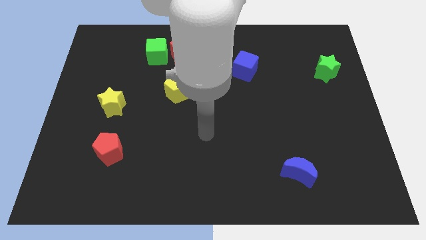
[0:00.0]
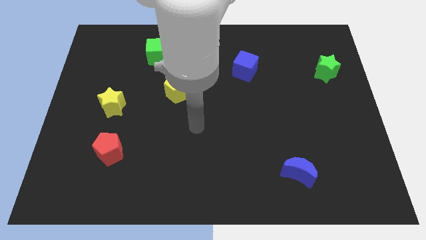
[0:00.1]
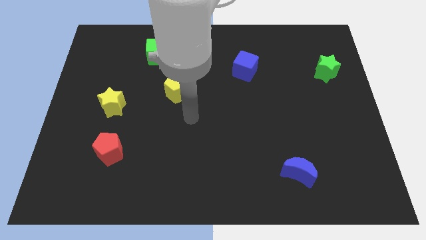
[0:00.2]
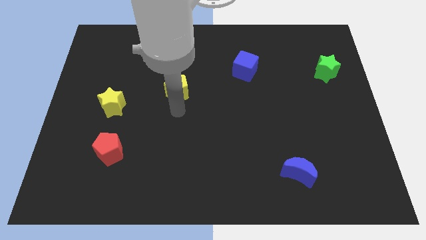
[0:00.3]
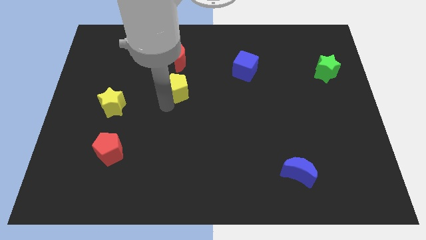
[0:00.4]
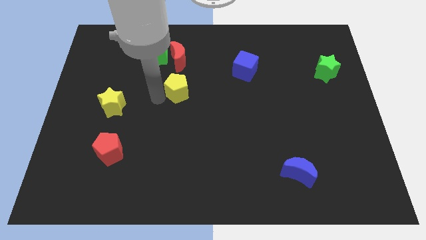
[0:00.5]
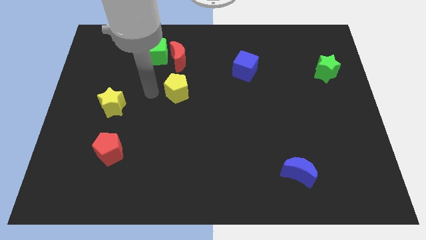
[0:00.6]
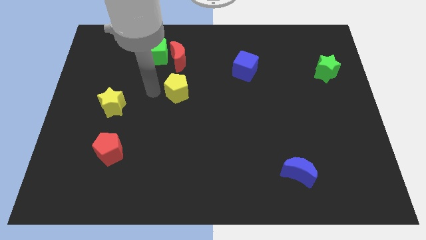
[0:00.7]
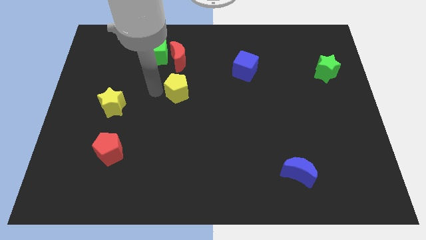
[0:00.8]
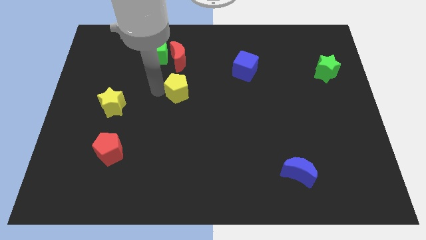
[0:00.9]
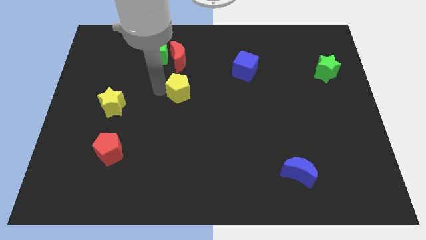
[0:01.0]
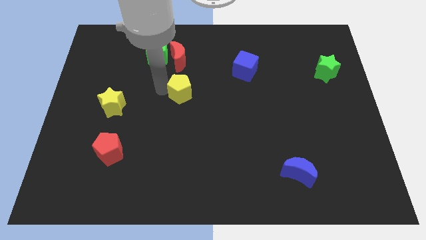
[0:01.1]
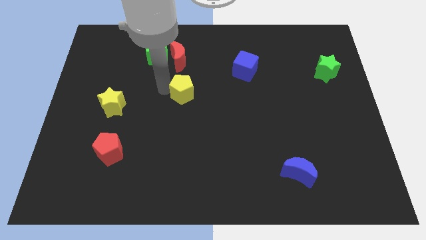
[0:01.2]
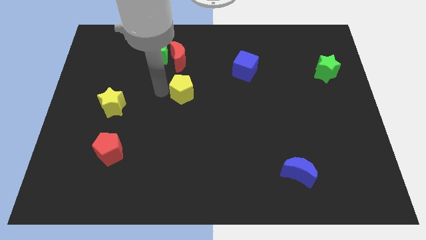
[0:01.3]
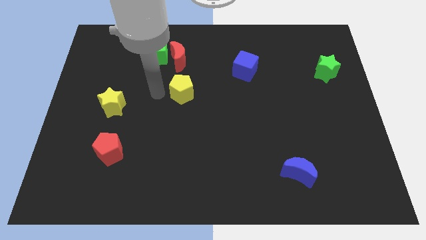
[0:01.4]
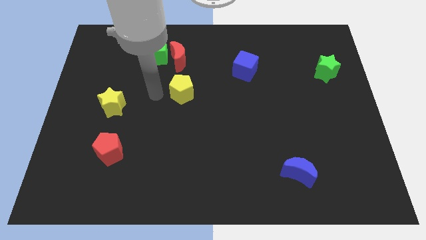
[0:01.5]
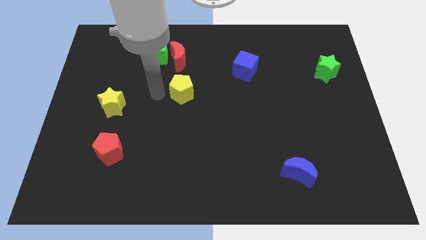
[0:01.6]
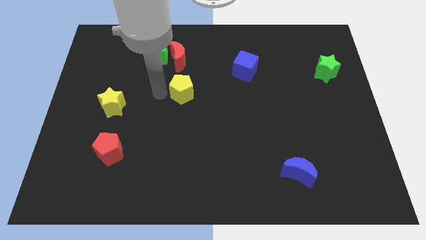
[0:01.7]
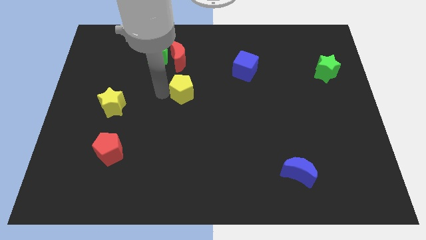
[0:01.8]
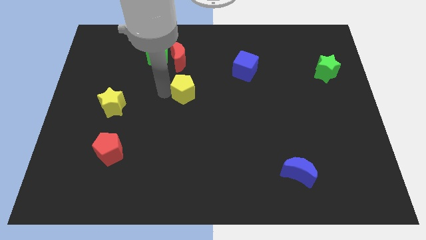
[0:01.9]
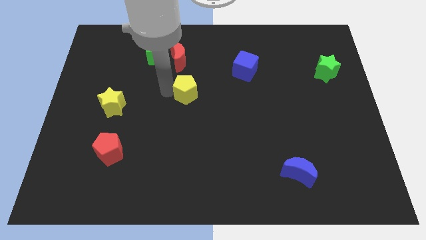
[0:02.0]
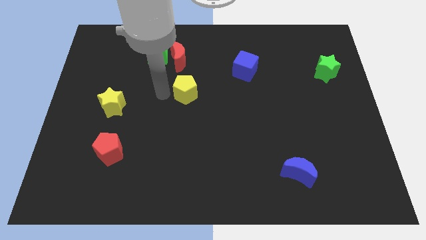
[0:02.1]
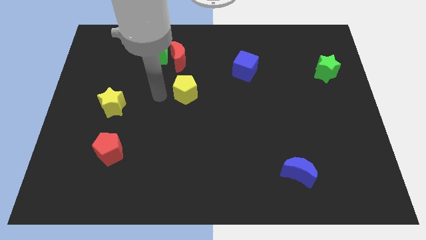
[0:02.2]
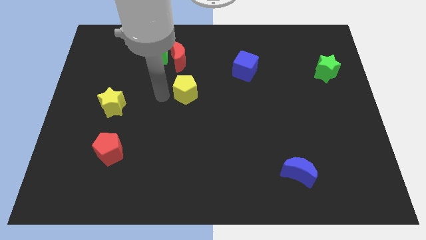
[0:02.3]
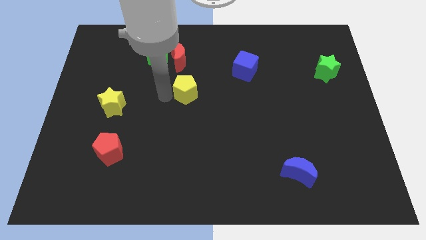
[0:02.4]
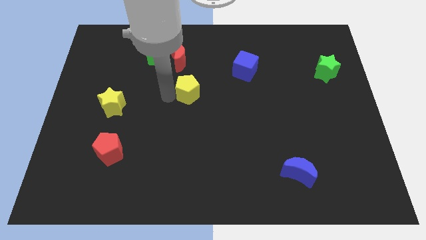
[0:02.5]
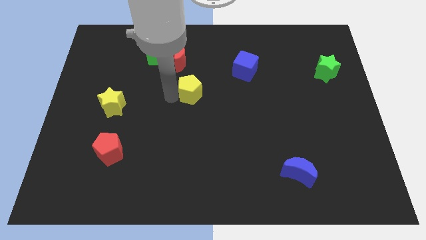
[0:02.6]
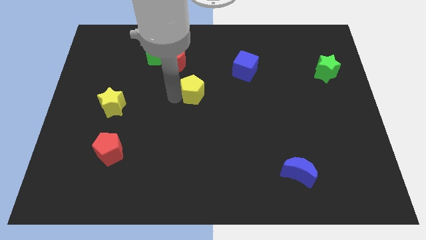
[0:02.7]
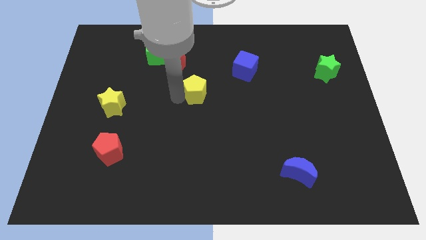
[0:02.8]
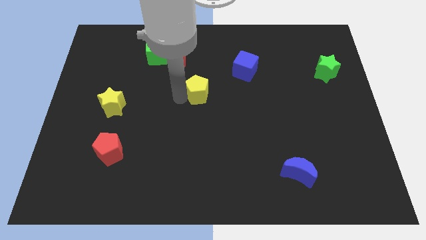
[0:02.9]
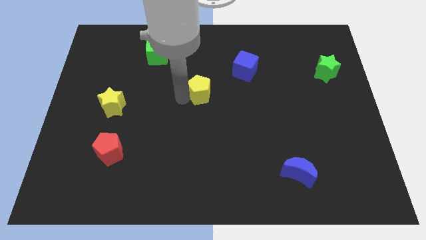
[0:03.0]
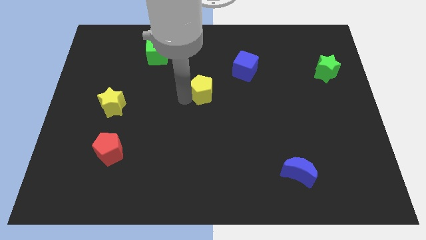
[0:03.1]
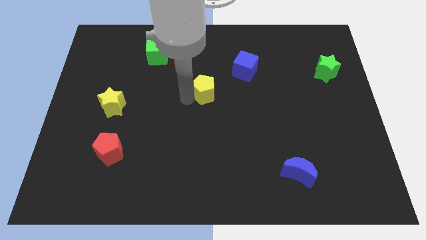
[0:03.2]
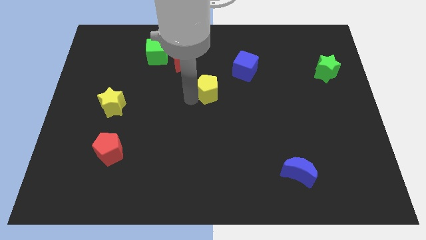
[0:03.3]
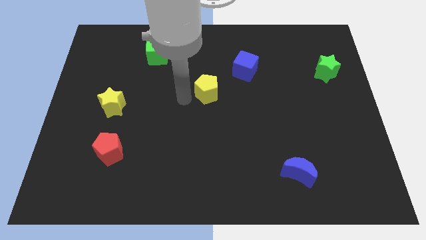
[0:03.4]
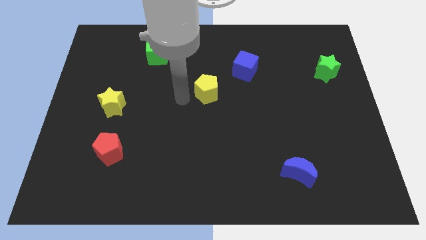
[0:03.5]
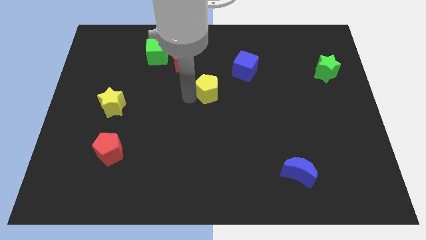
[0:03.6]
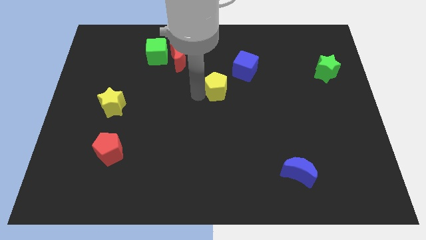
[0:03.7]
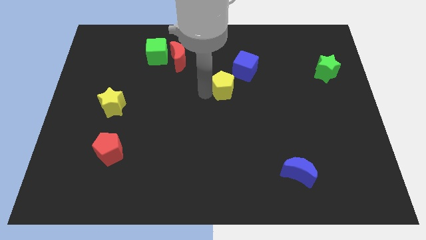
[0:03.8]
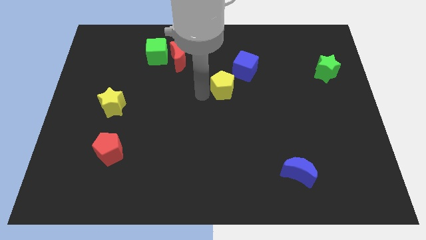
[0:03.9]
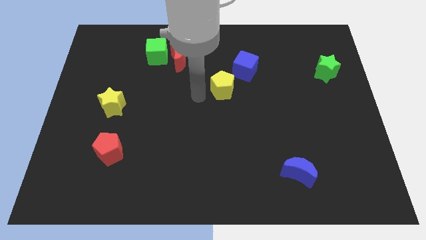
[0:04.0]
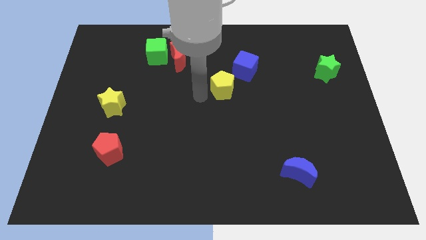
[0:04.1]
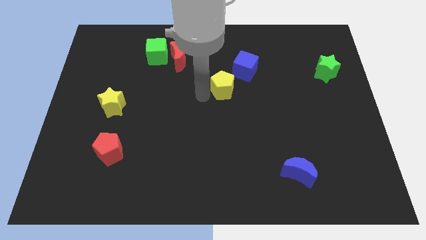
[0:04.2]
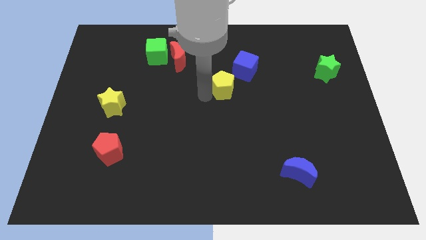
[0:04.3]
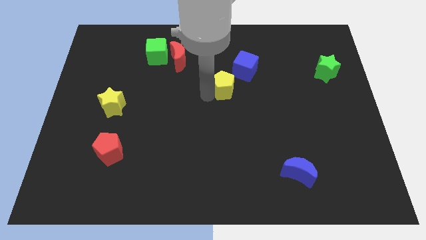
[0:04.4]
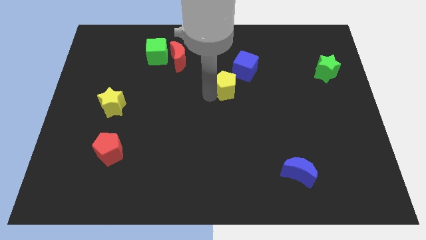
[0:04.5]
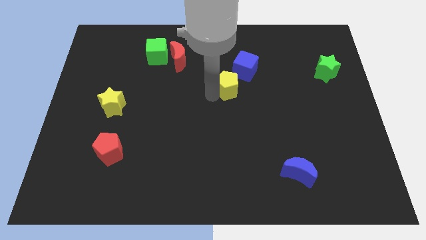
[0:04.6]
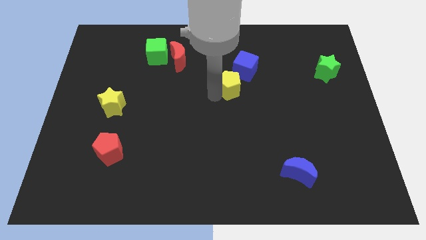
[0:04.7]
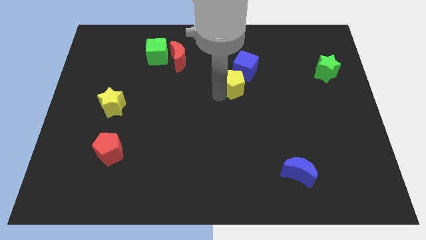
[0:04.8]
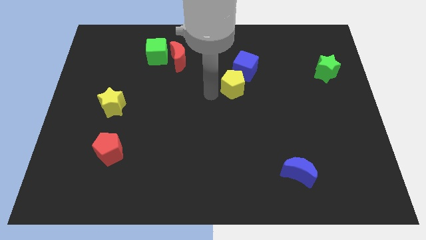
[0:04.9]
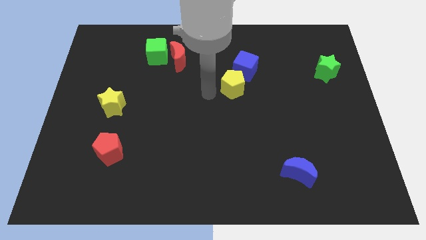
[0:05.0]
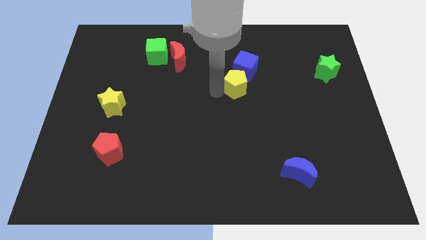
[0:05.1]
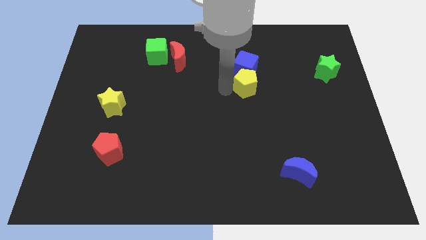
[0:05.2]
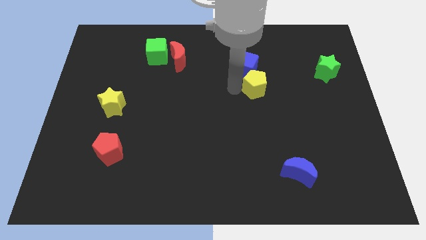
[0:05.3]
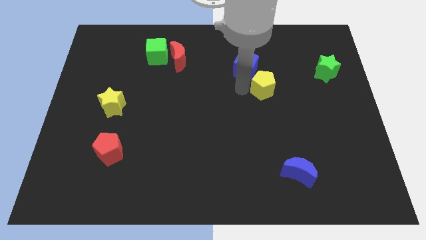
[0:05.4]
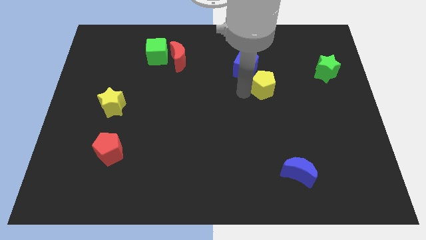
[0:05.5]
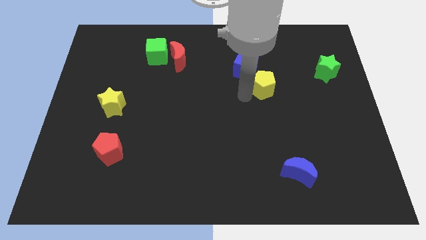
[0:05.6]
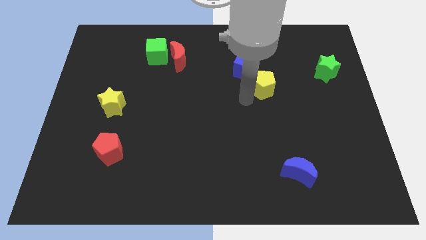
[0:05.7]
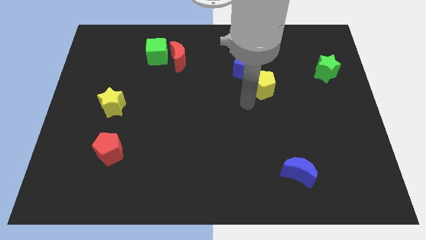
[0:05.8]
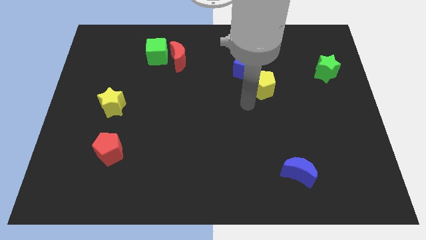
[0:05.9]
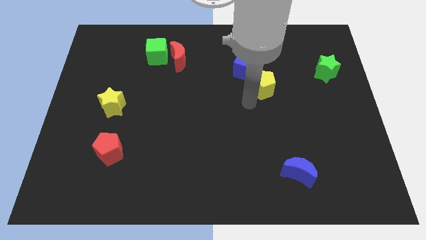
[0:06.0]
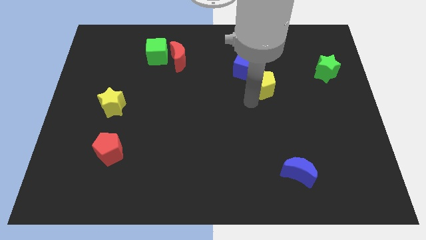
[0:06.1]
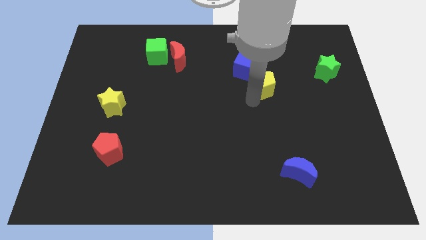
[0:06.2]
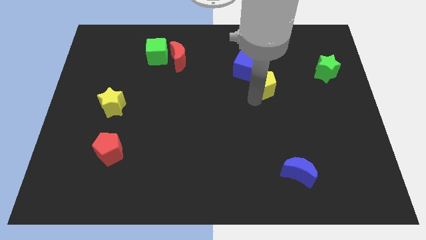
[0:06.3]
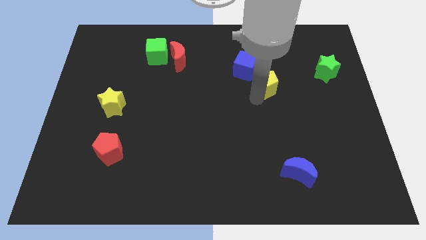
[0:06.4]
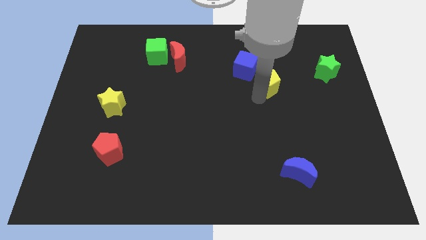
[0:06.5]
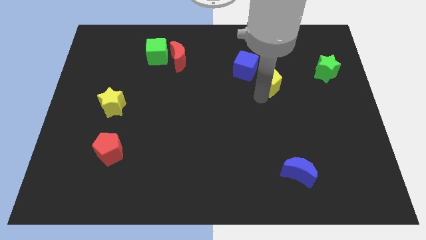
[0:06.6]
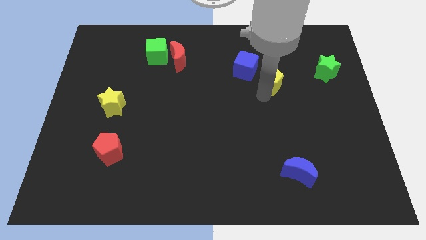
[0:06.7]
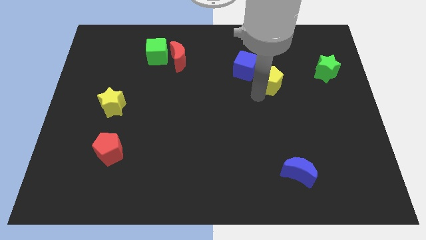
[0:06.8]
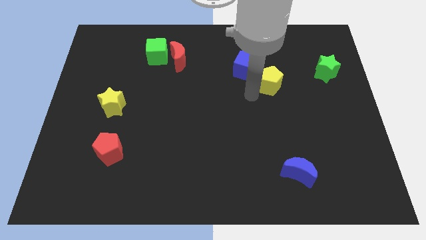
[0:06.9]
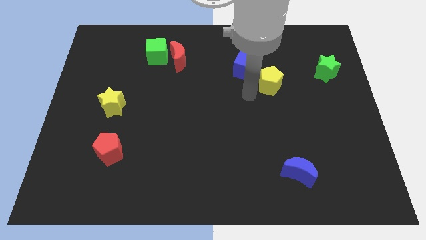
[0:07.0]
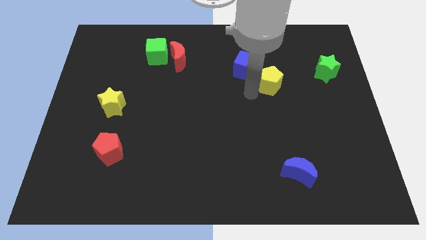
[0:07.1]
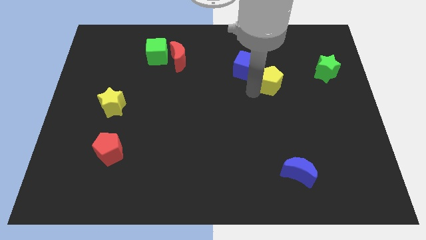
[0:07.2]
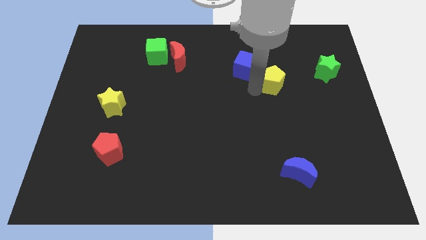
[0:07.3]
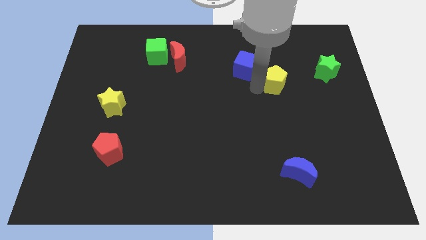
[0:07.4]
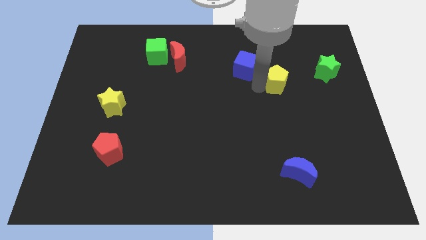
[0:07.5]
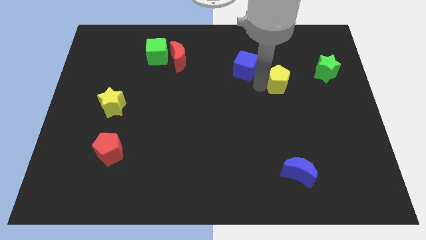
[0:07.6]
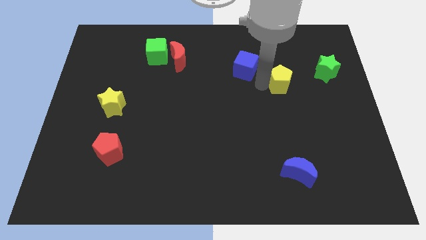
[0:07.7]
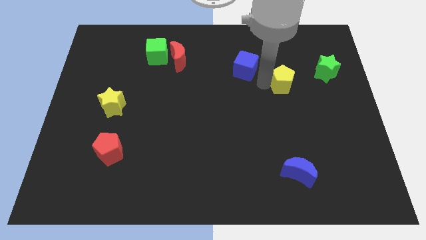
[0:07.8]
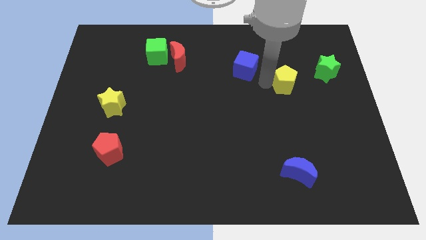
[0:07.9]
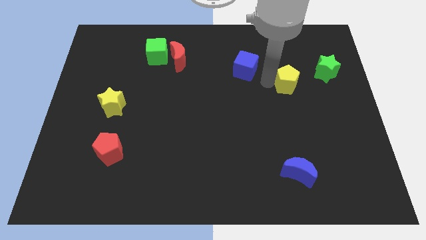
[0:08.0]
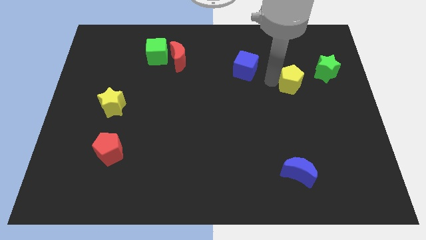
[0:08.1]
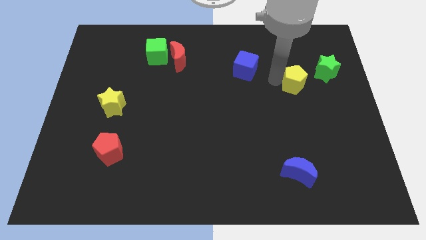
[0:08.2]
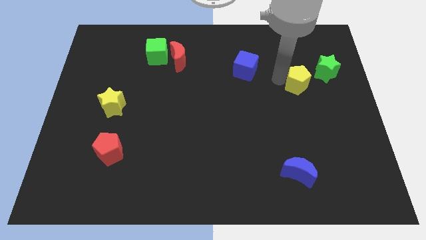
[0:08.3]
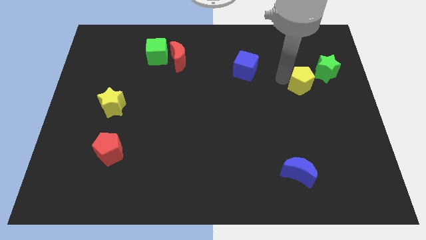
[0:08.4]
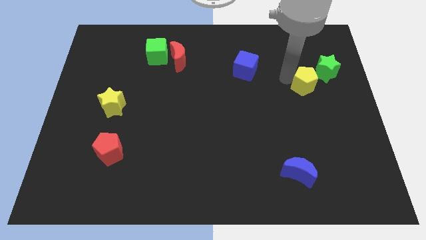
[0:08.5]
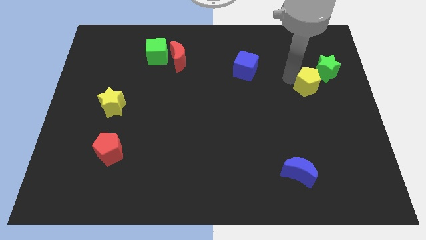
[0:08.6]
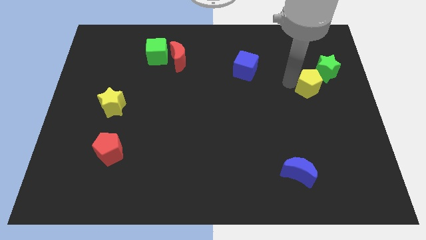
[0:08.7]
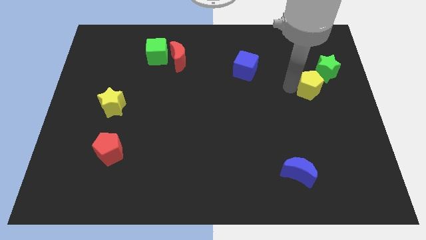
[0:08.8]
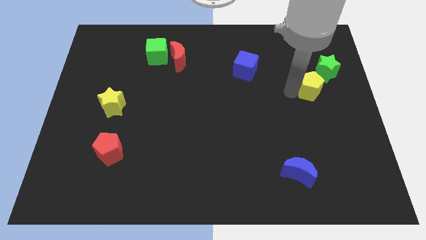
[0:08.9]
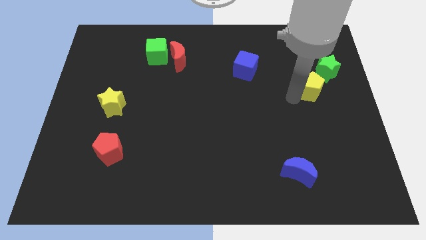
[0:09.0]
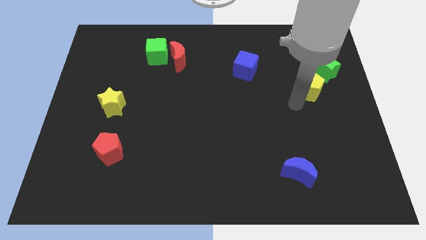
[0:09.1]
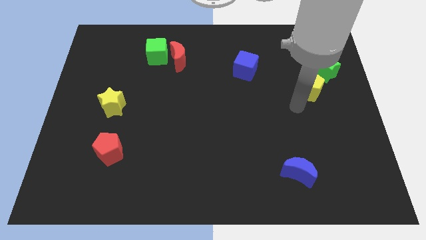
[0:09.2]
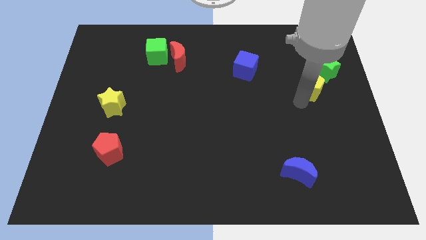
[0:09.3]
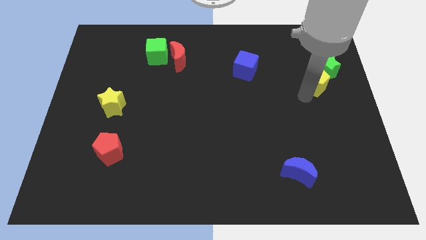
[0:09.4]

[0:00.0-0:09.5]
move the yellow pentagon next to the green star
